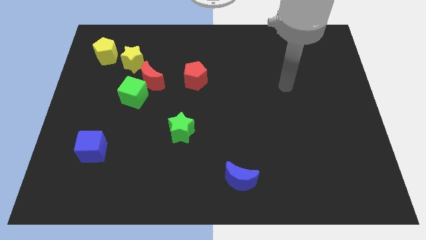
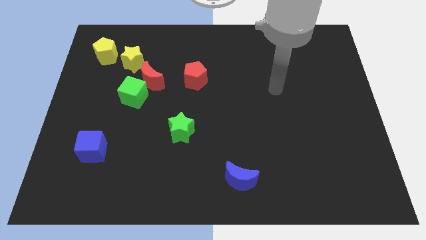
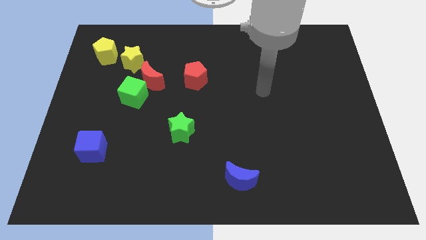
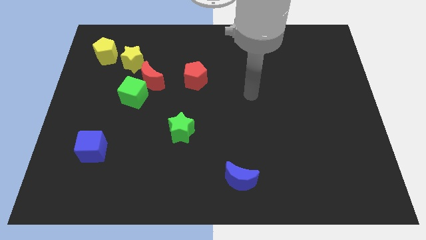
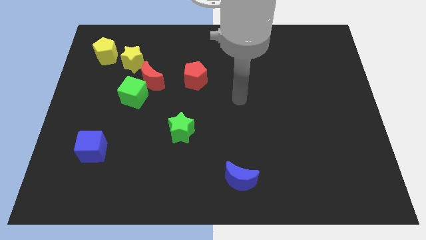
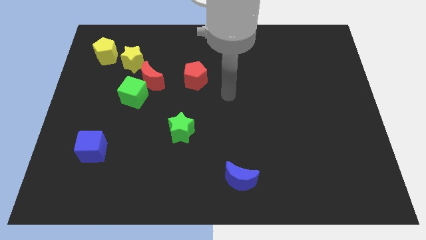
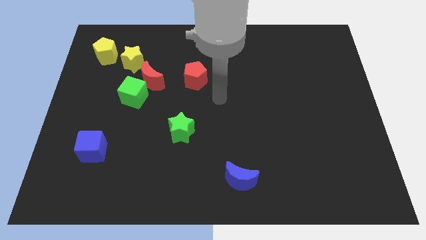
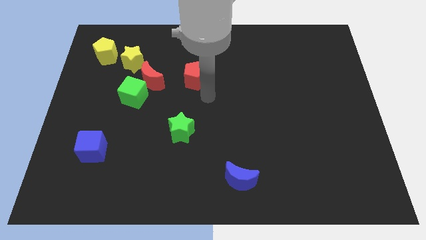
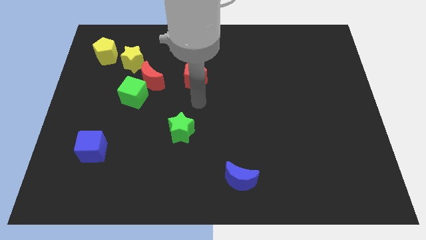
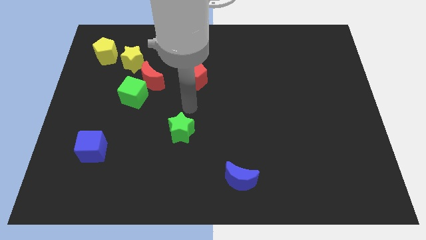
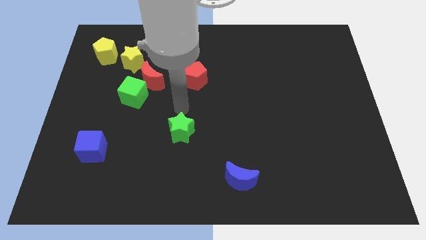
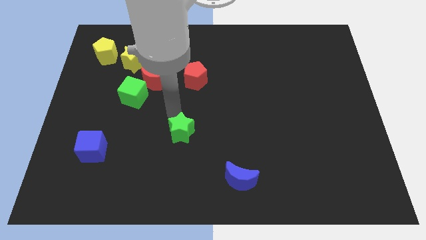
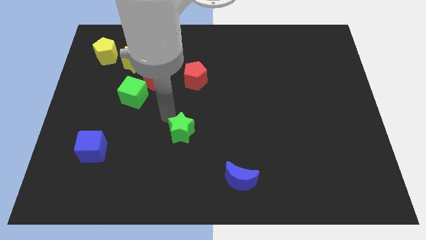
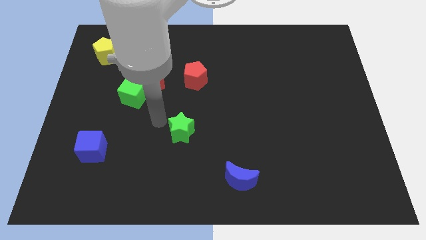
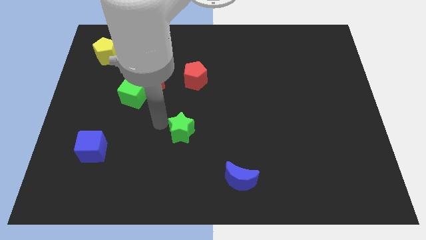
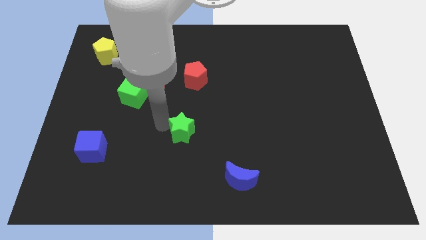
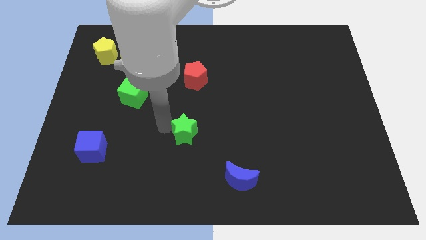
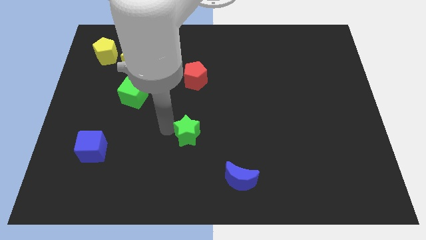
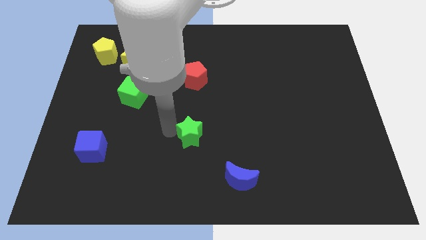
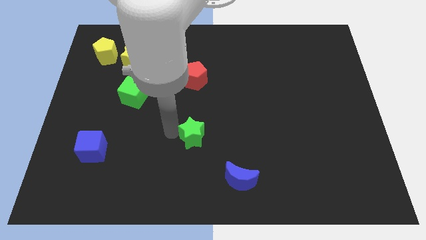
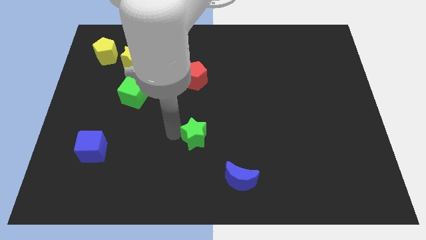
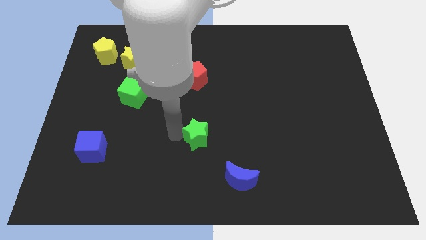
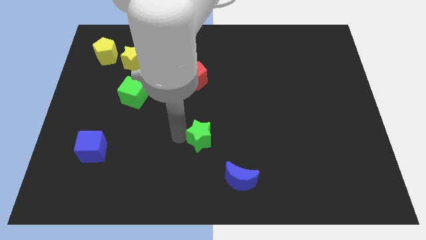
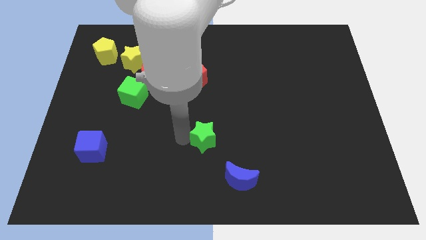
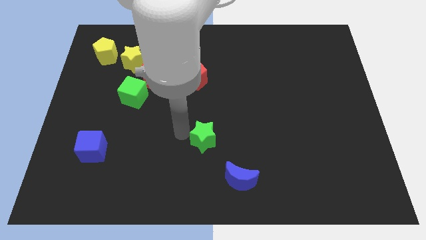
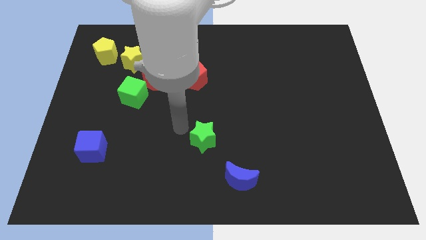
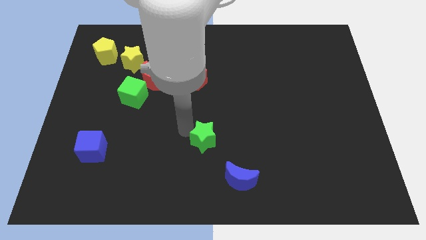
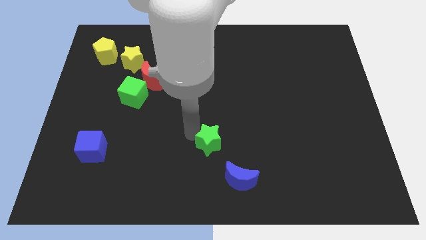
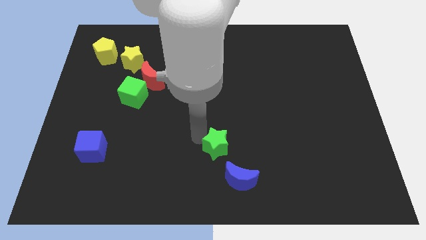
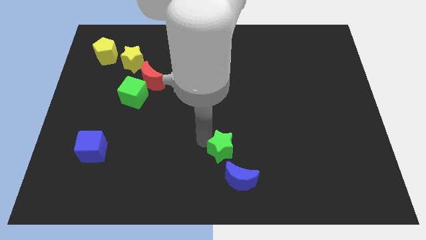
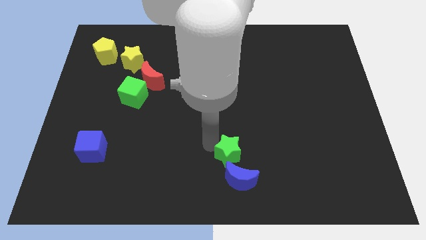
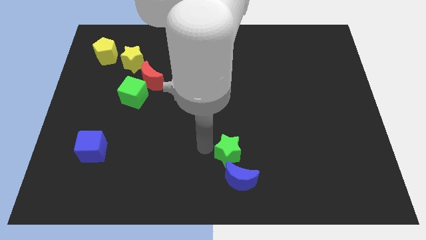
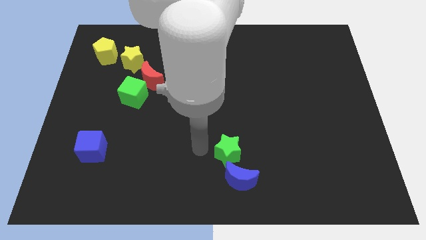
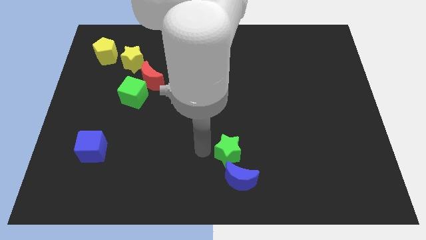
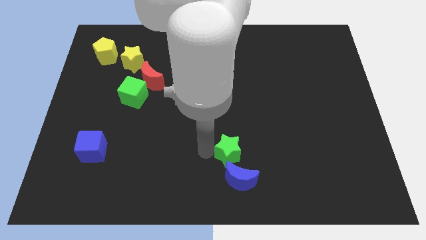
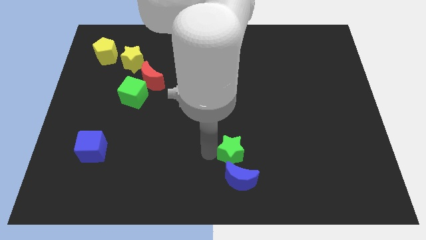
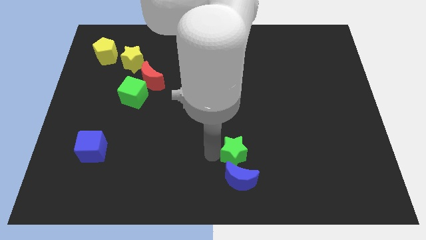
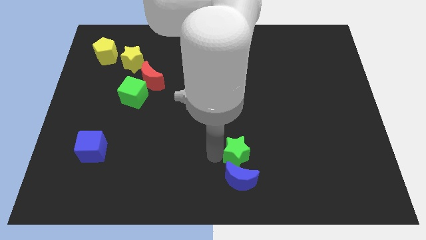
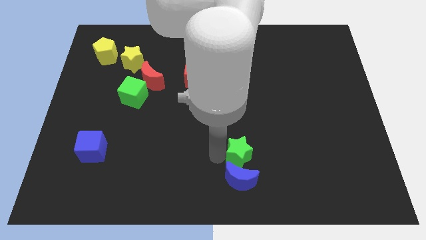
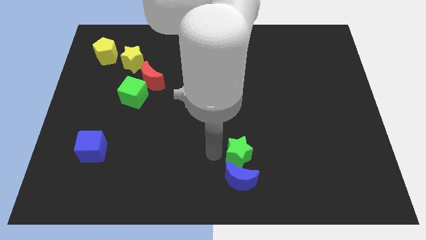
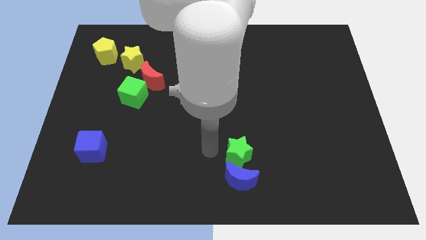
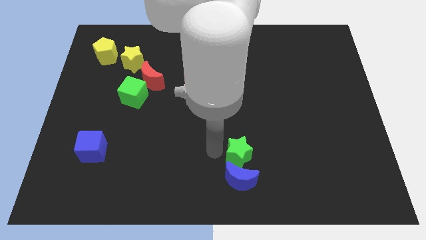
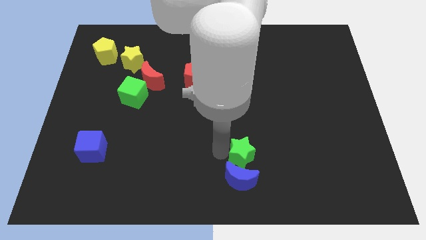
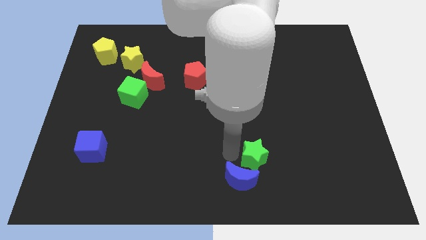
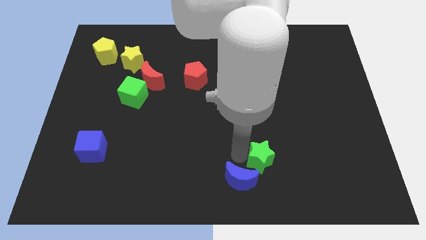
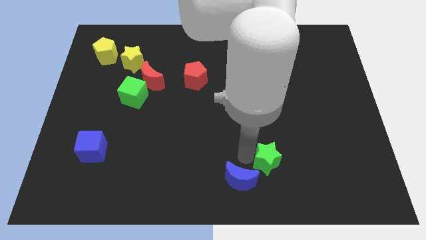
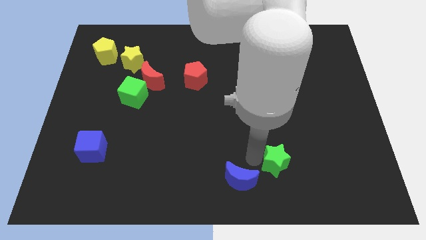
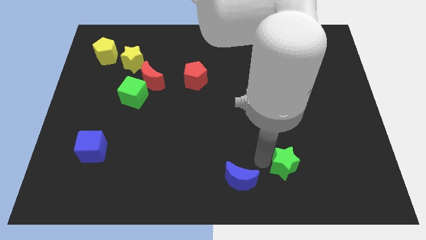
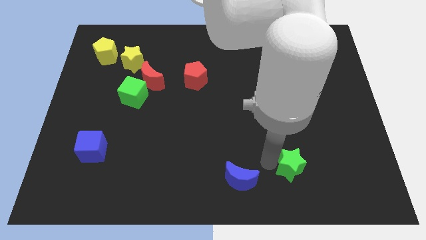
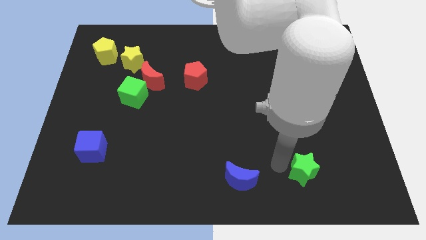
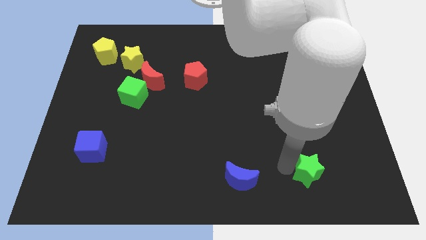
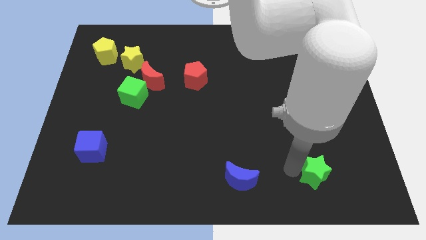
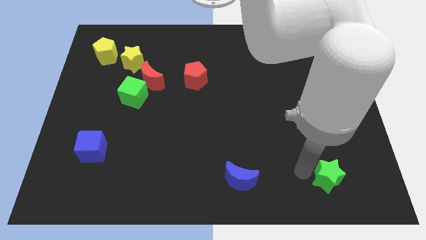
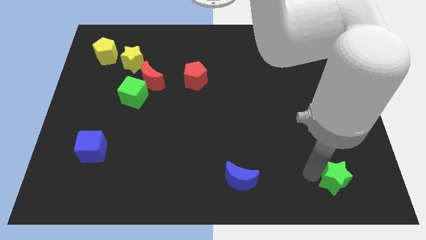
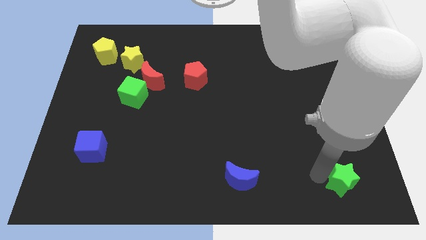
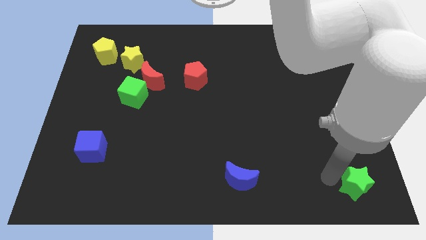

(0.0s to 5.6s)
slide the green star to the bottom right

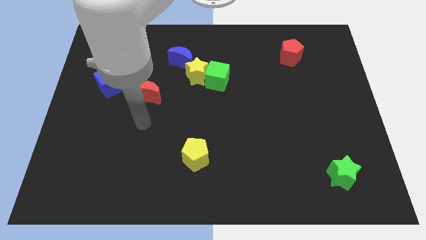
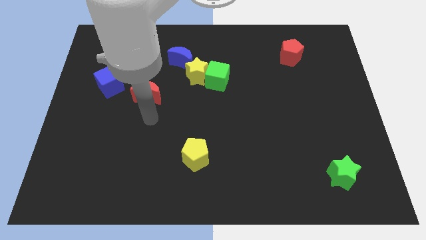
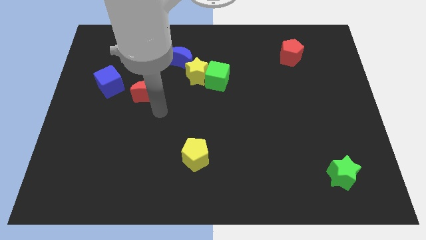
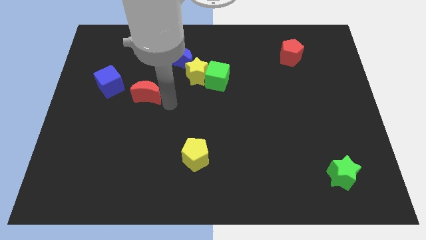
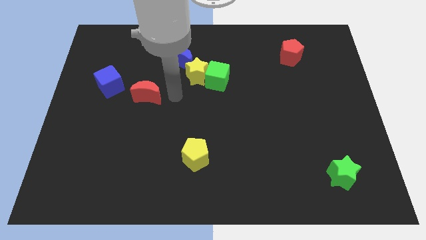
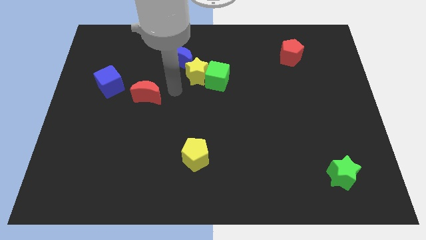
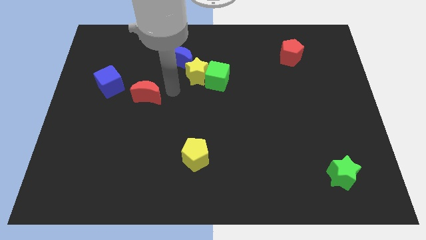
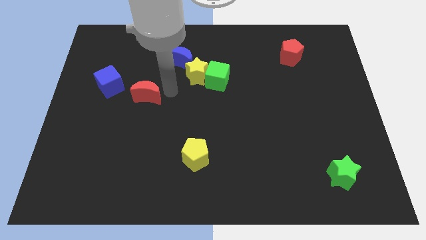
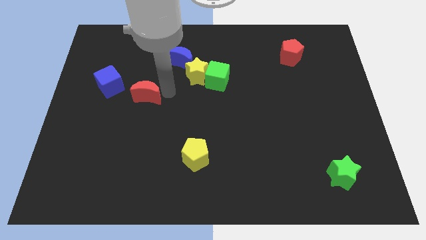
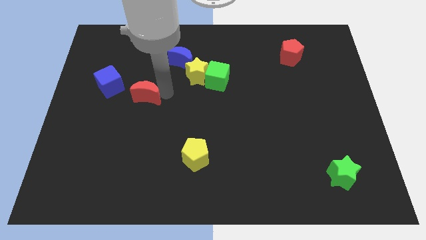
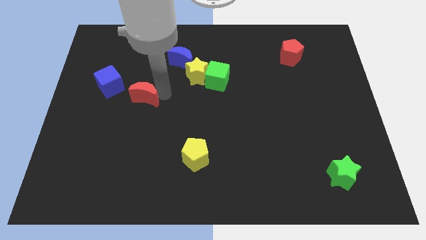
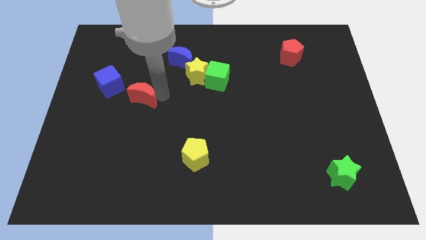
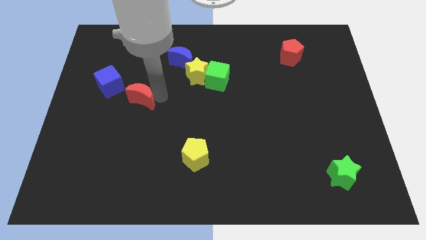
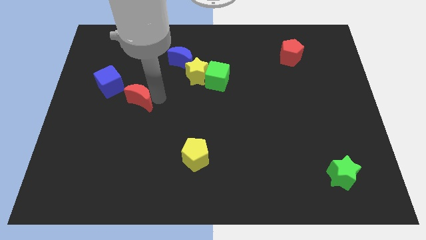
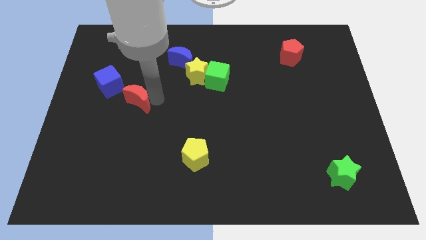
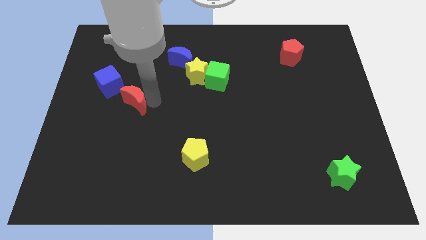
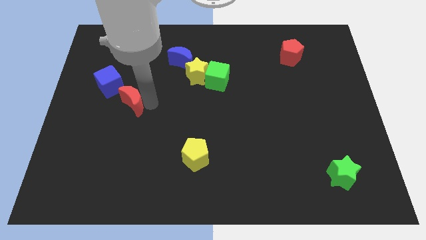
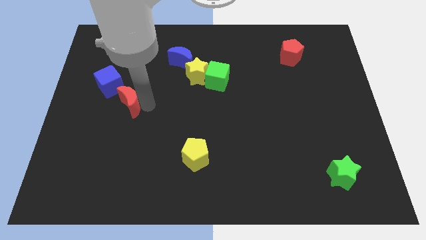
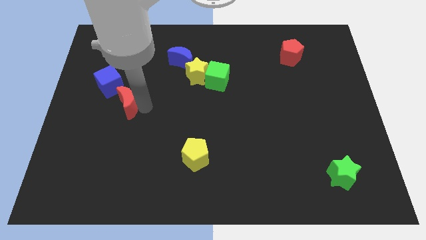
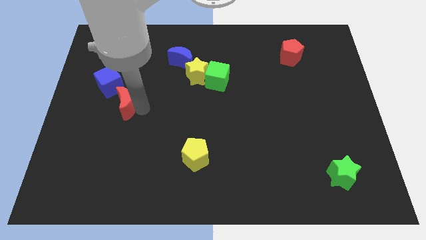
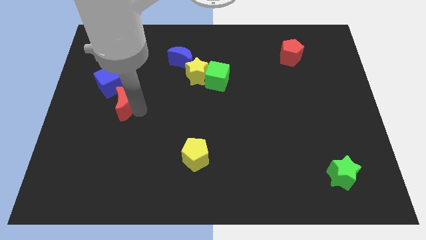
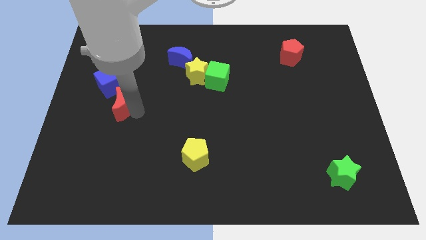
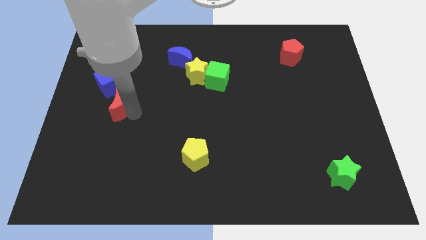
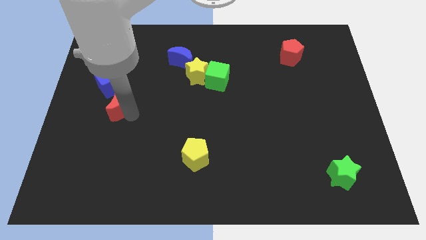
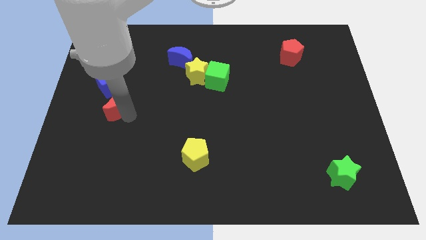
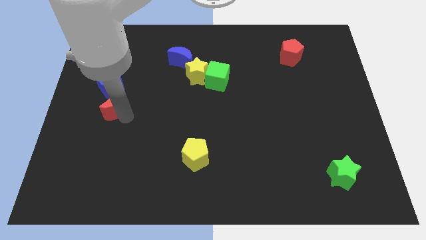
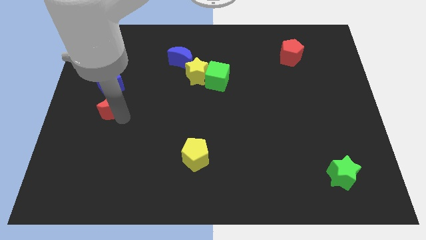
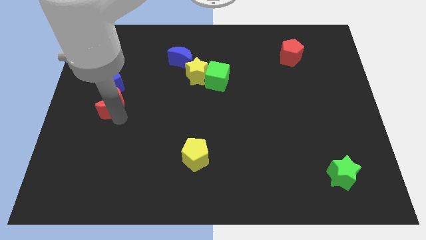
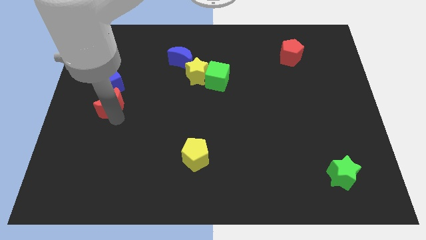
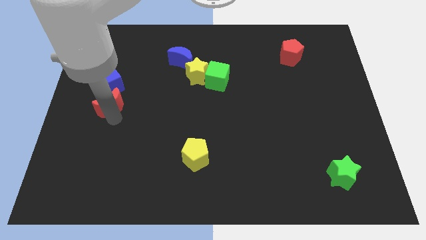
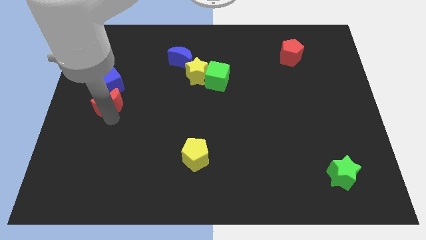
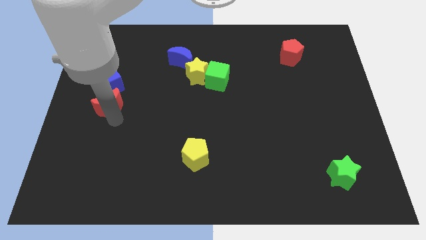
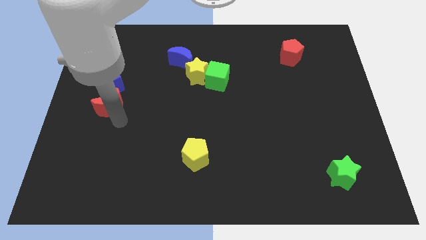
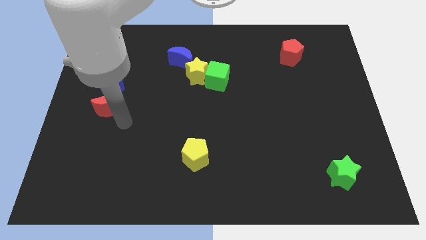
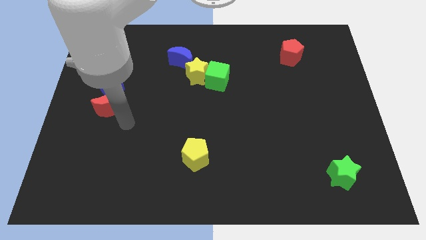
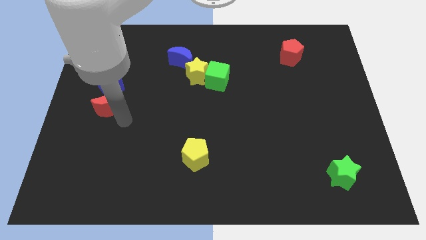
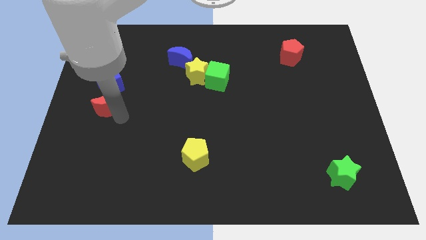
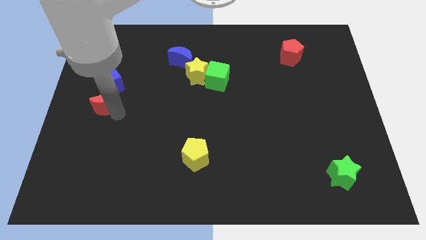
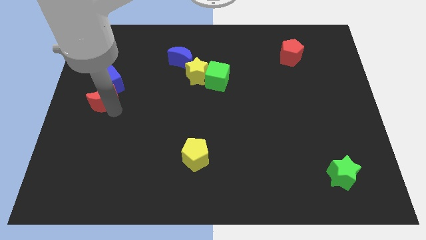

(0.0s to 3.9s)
put the red moon to the left side
